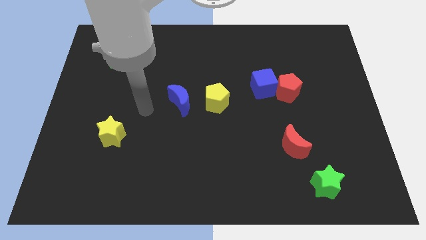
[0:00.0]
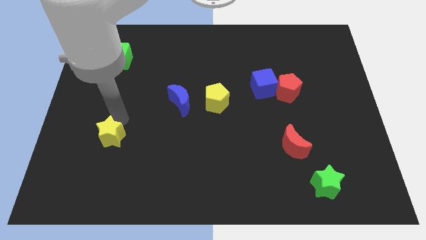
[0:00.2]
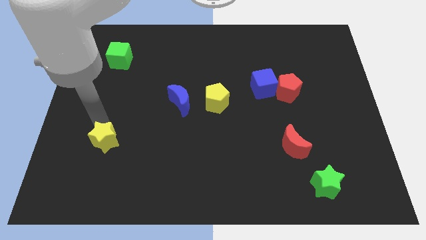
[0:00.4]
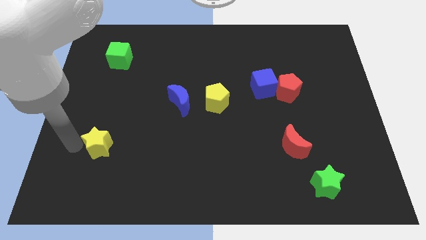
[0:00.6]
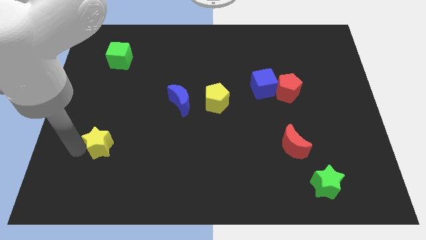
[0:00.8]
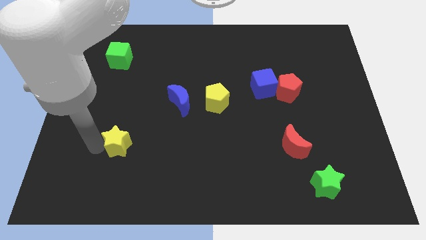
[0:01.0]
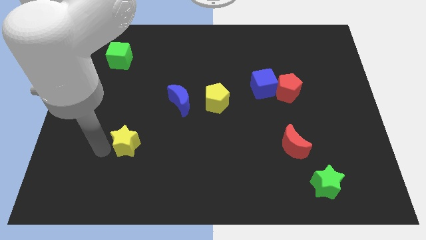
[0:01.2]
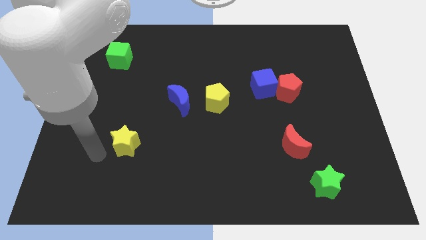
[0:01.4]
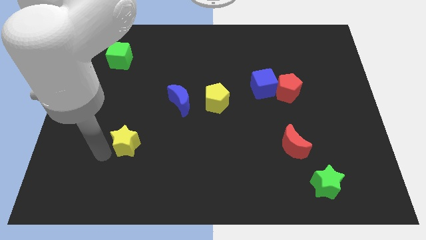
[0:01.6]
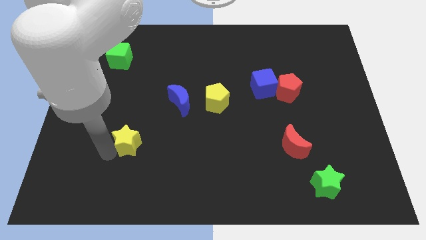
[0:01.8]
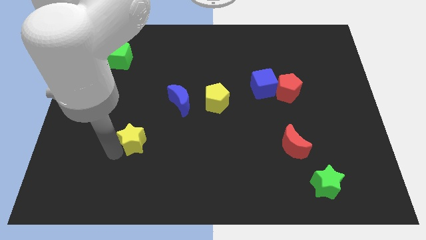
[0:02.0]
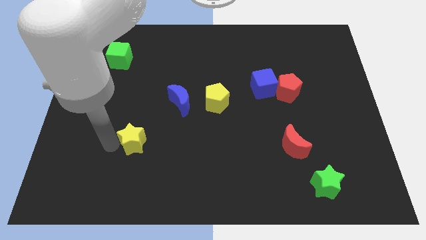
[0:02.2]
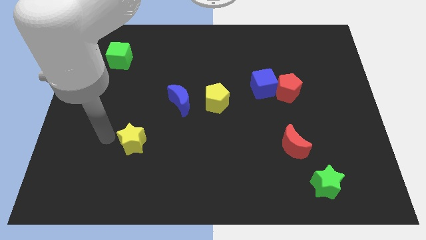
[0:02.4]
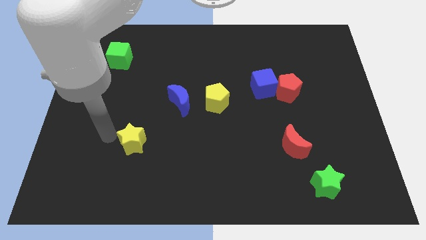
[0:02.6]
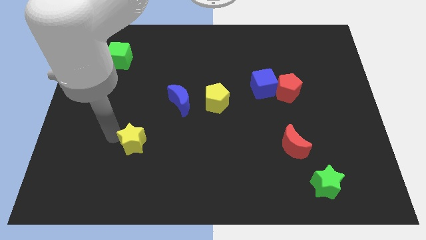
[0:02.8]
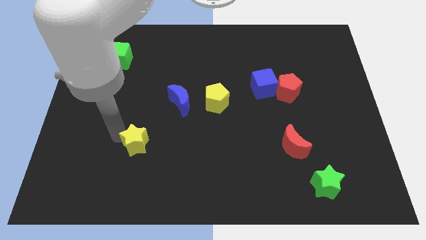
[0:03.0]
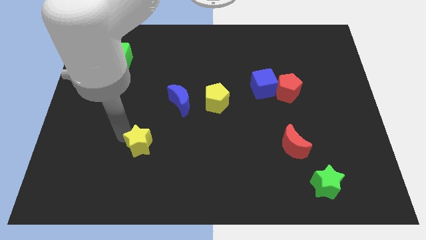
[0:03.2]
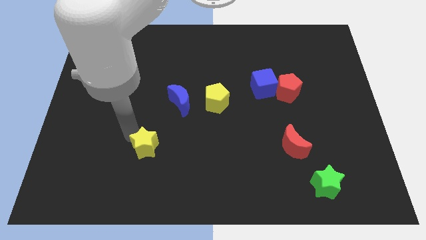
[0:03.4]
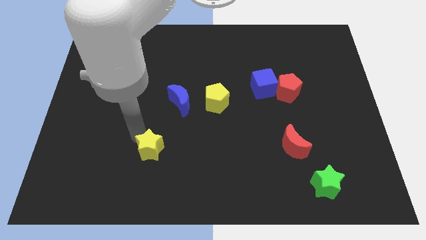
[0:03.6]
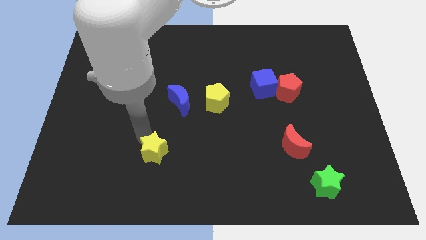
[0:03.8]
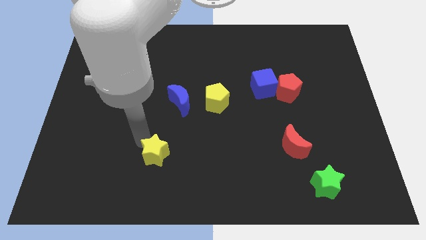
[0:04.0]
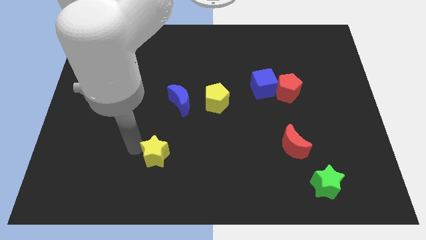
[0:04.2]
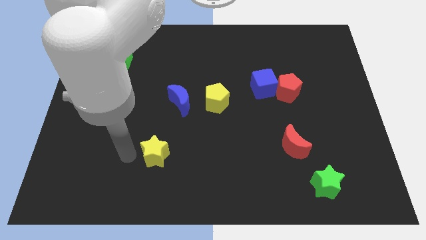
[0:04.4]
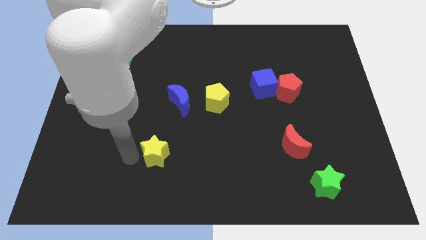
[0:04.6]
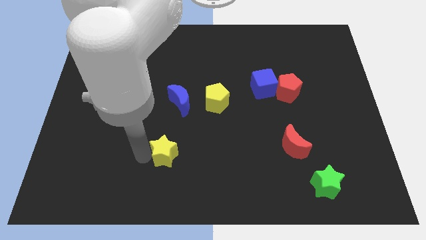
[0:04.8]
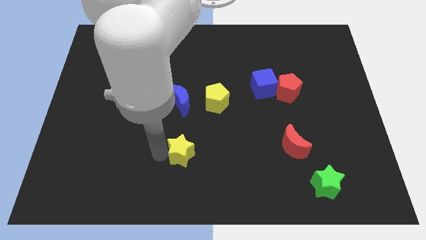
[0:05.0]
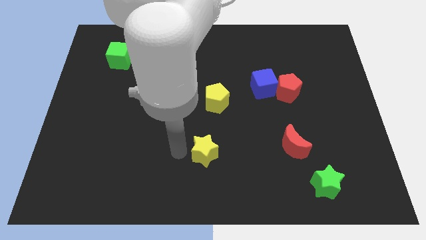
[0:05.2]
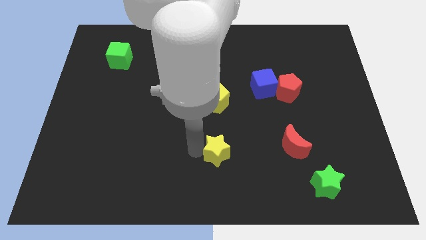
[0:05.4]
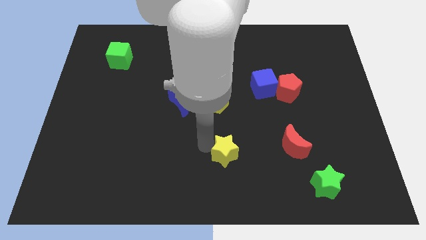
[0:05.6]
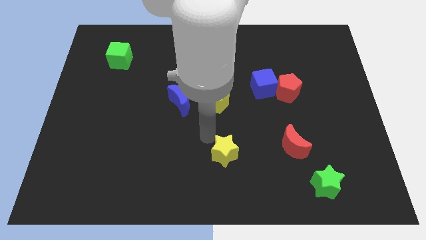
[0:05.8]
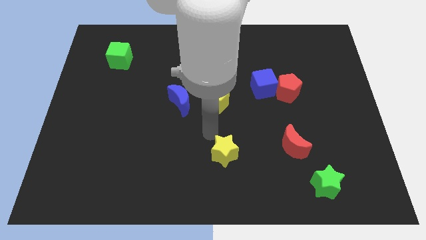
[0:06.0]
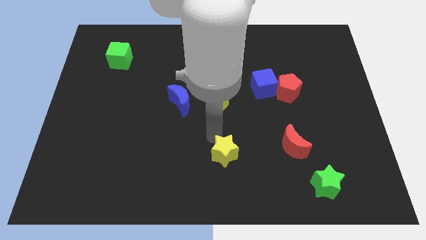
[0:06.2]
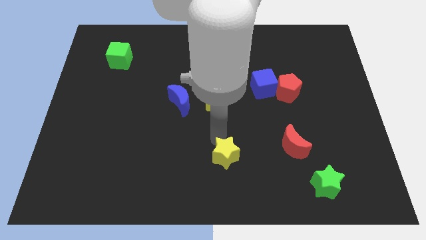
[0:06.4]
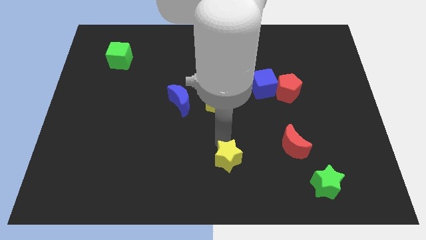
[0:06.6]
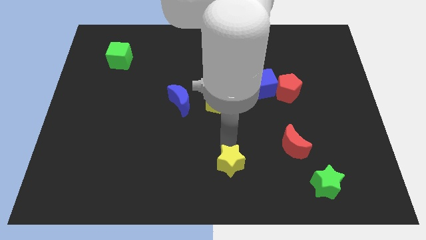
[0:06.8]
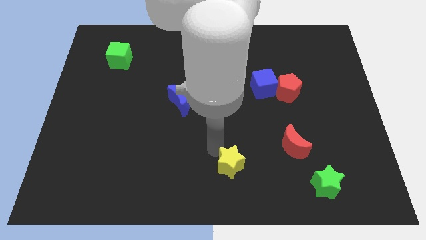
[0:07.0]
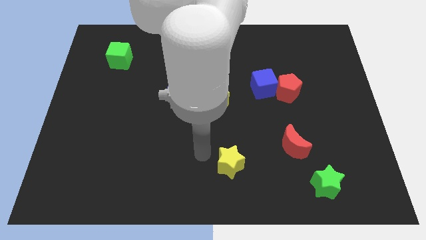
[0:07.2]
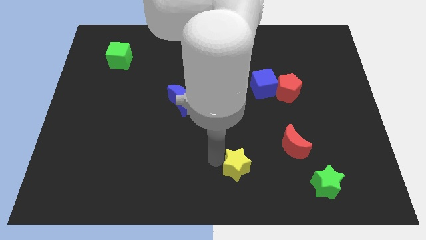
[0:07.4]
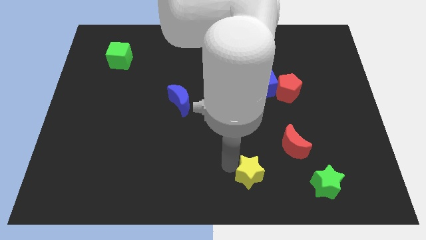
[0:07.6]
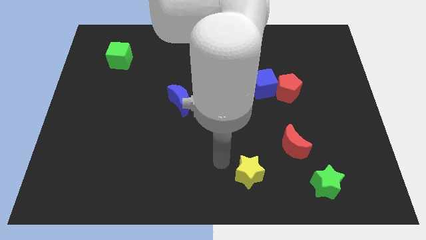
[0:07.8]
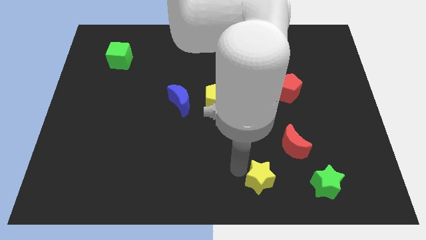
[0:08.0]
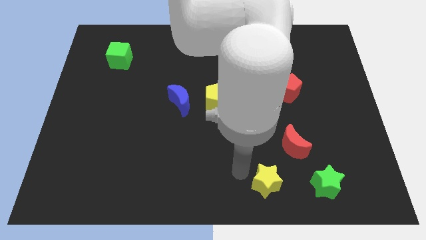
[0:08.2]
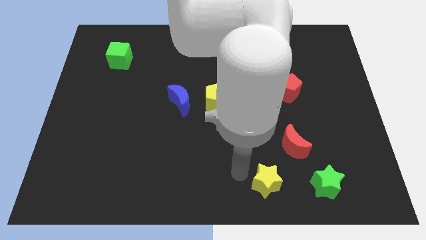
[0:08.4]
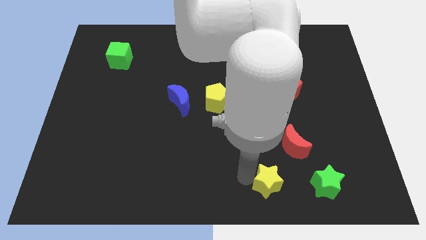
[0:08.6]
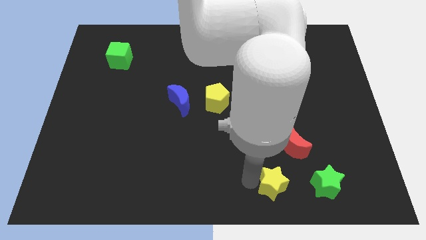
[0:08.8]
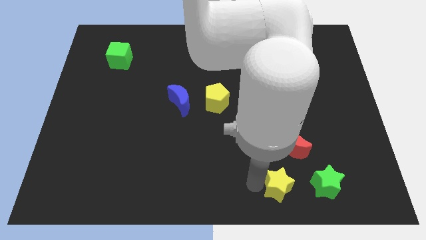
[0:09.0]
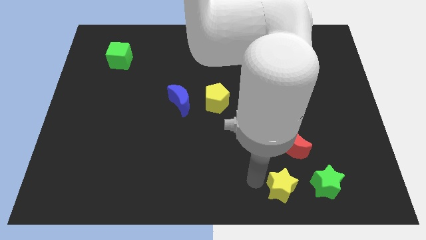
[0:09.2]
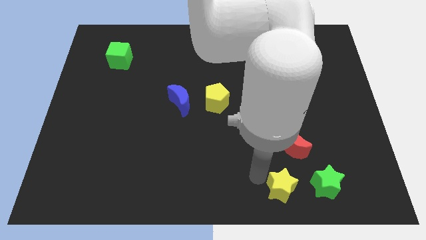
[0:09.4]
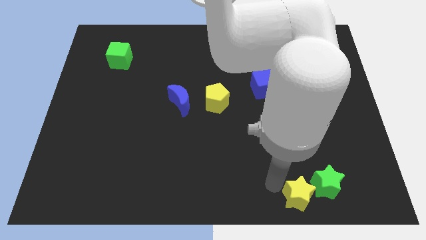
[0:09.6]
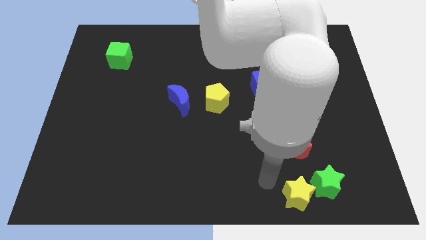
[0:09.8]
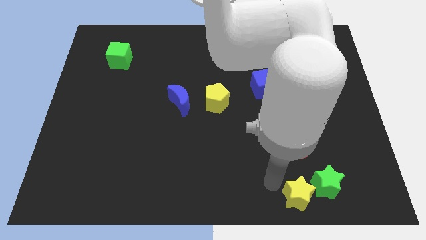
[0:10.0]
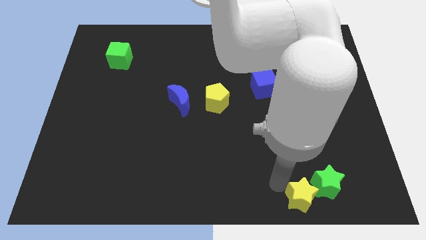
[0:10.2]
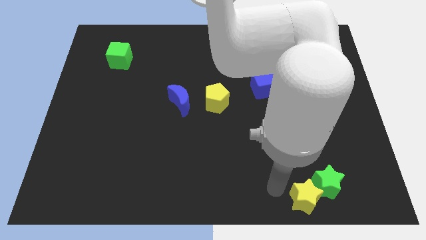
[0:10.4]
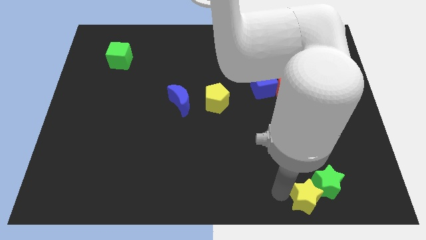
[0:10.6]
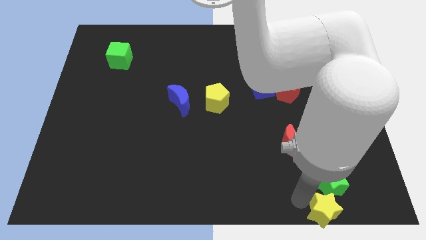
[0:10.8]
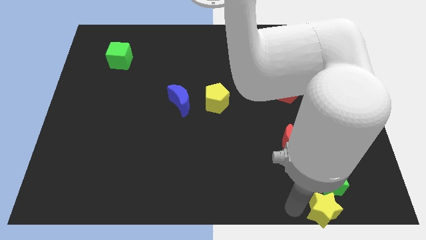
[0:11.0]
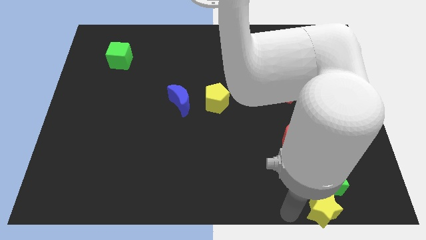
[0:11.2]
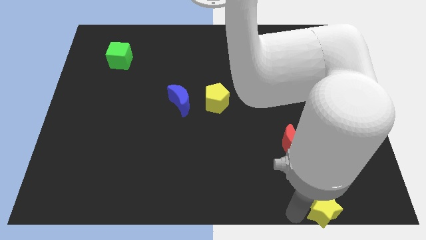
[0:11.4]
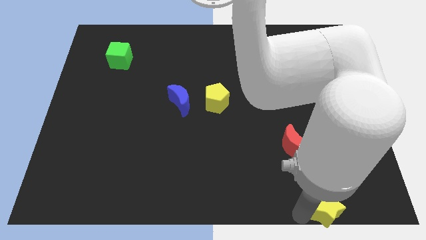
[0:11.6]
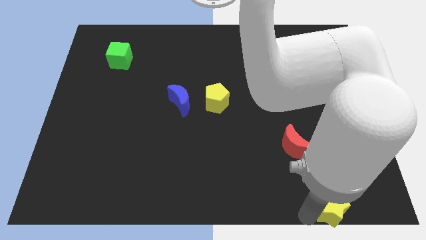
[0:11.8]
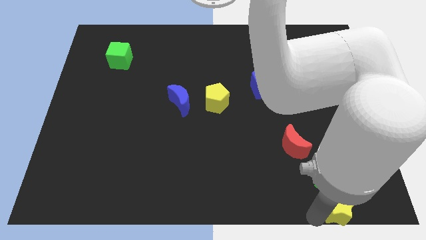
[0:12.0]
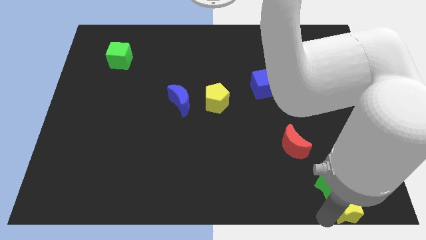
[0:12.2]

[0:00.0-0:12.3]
push the yellow star to the lower right corner
